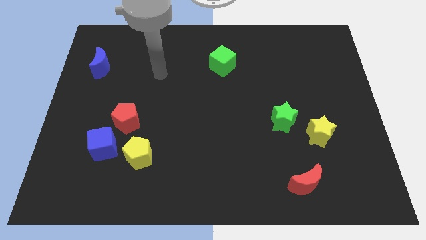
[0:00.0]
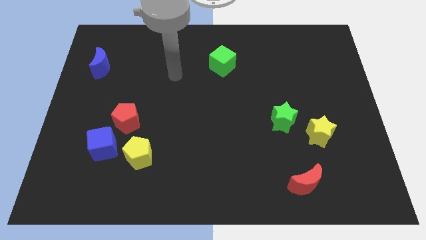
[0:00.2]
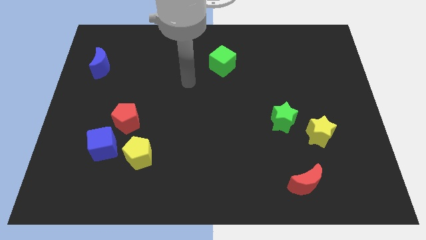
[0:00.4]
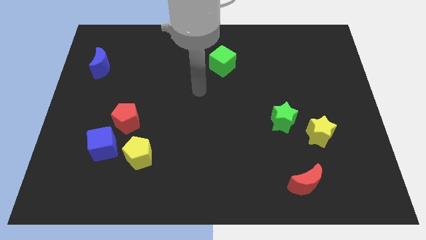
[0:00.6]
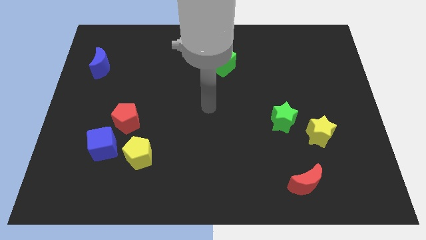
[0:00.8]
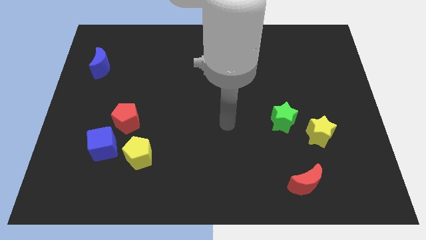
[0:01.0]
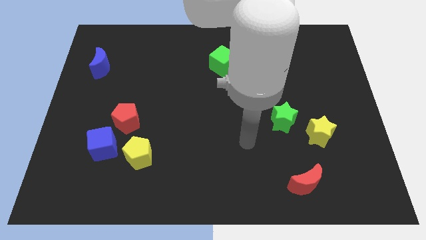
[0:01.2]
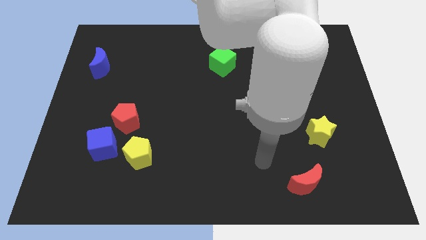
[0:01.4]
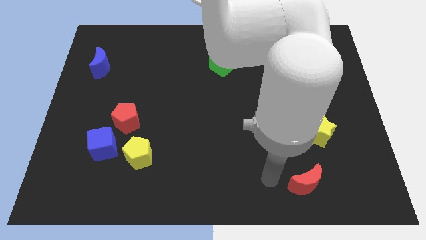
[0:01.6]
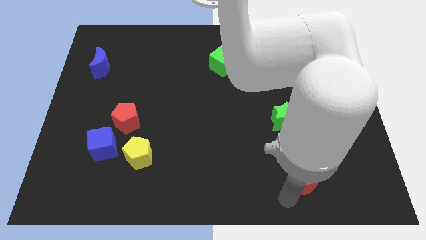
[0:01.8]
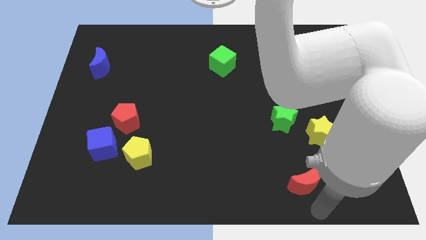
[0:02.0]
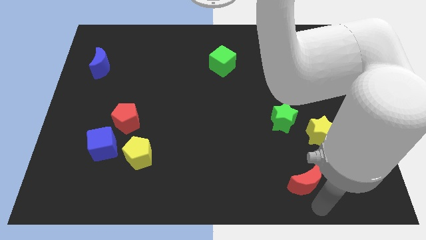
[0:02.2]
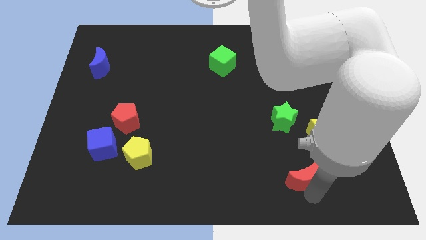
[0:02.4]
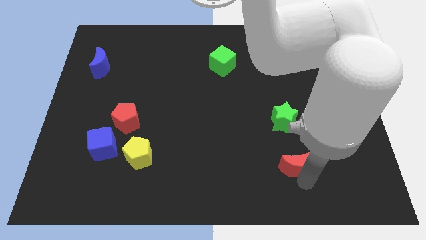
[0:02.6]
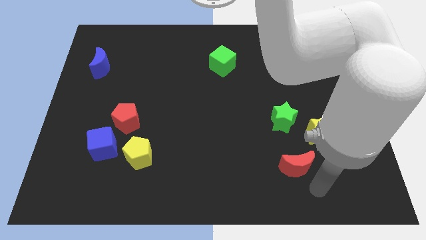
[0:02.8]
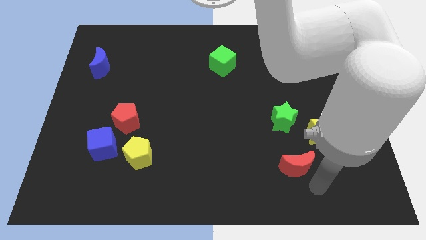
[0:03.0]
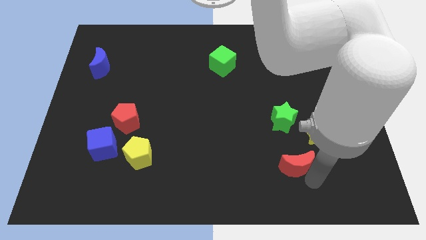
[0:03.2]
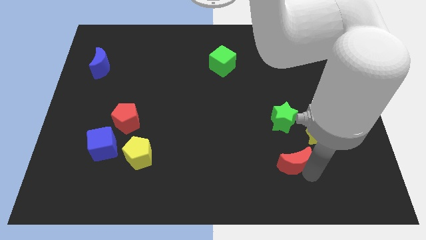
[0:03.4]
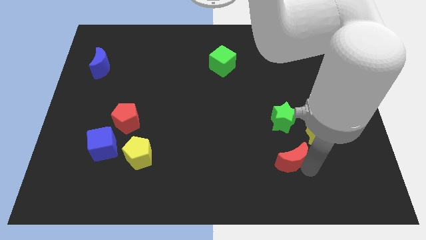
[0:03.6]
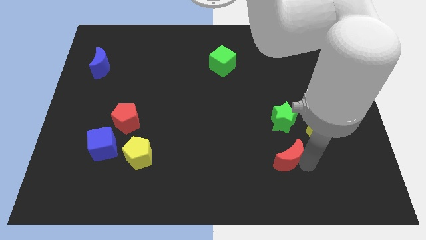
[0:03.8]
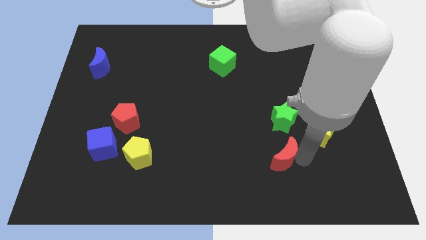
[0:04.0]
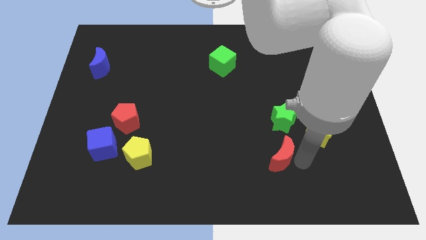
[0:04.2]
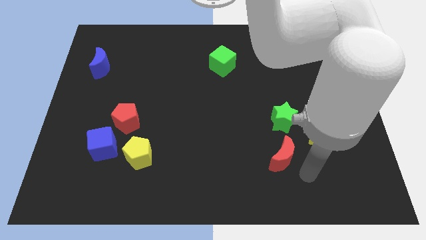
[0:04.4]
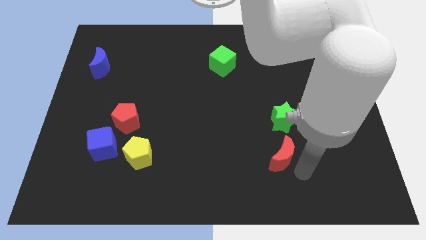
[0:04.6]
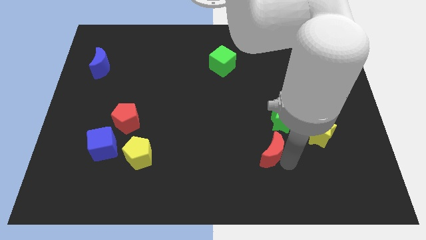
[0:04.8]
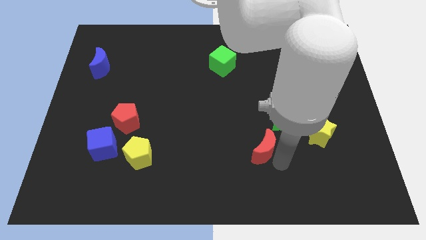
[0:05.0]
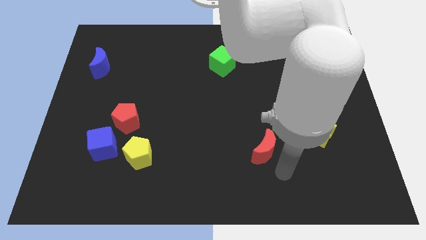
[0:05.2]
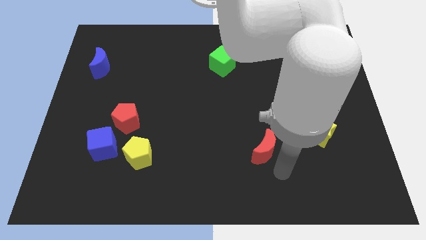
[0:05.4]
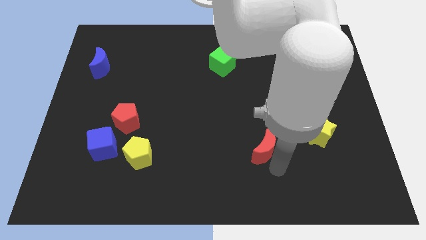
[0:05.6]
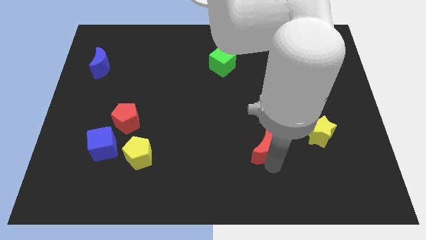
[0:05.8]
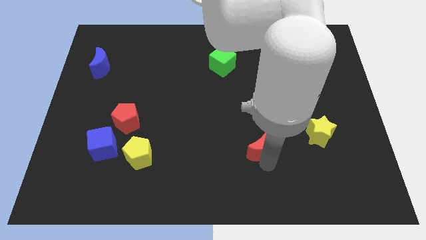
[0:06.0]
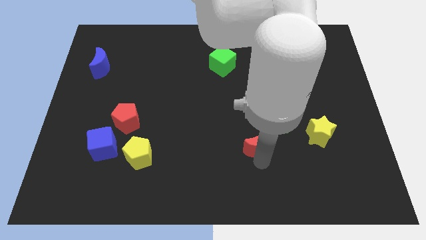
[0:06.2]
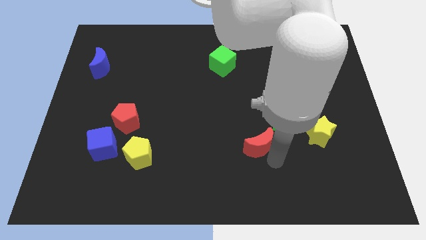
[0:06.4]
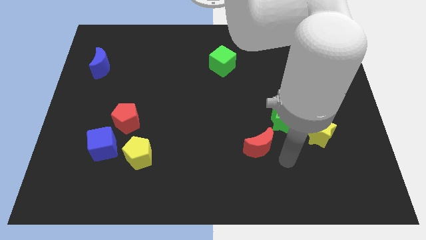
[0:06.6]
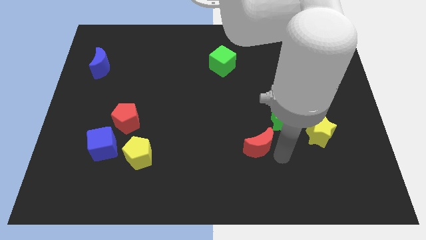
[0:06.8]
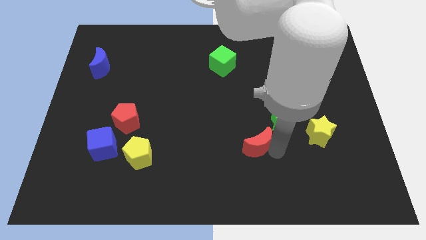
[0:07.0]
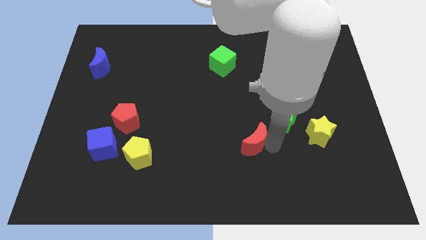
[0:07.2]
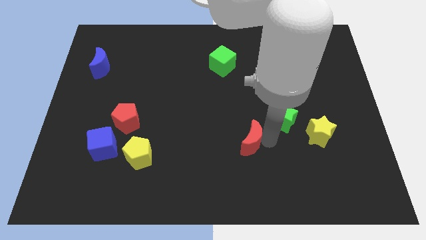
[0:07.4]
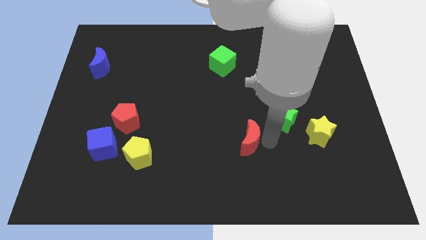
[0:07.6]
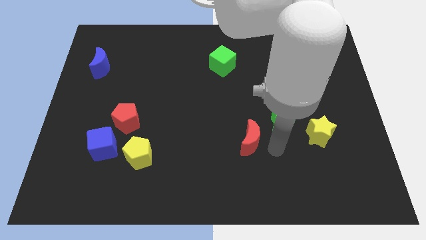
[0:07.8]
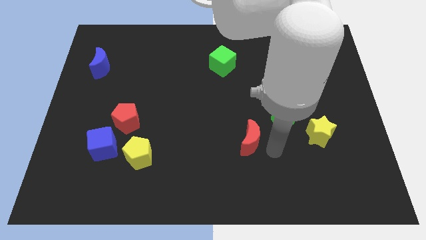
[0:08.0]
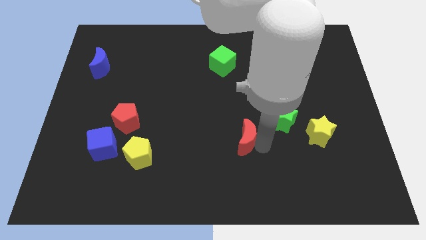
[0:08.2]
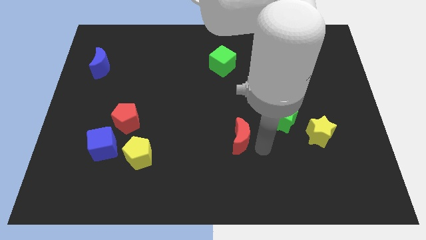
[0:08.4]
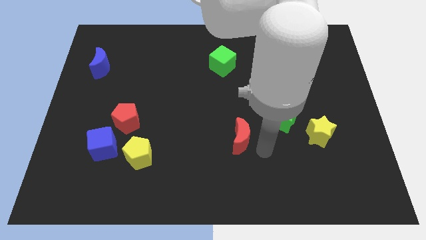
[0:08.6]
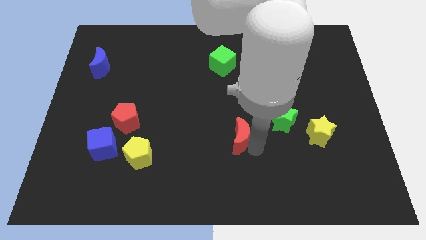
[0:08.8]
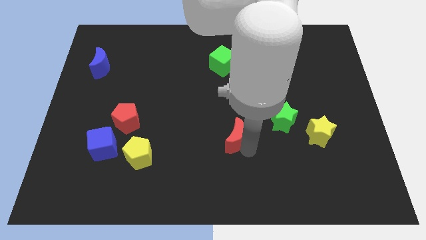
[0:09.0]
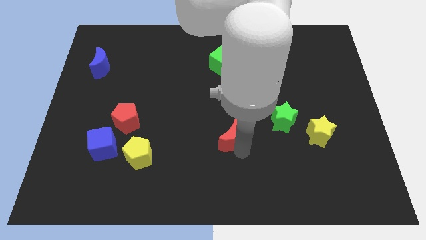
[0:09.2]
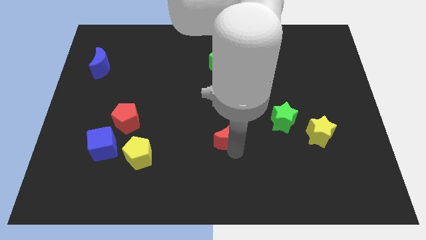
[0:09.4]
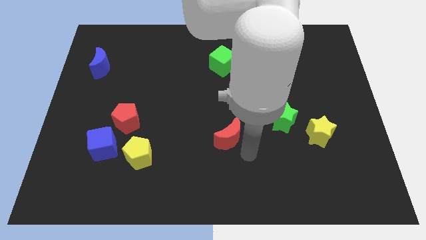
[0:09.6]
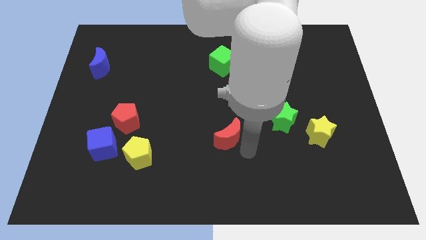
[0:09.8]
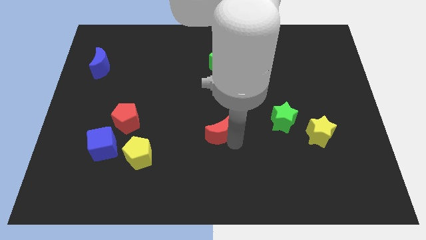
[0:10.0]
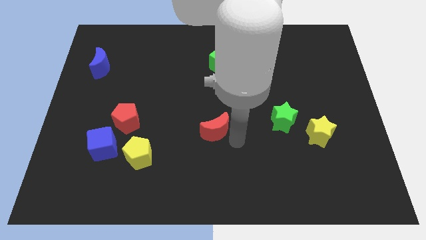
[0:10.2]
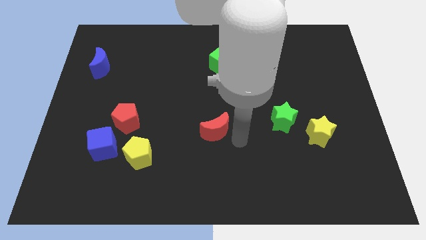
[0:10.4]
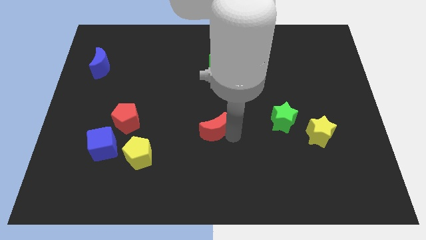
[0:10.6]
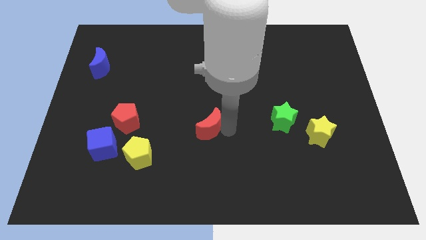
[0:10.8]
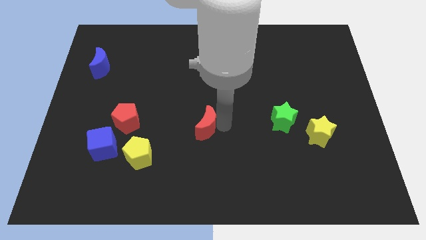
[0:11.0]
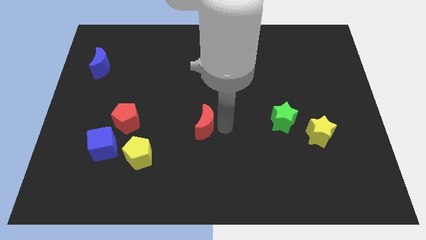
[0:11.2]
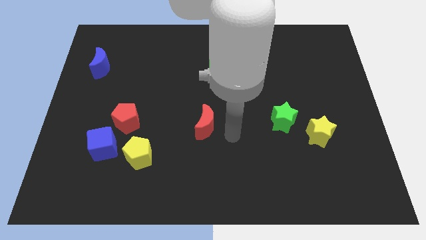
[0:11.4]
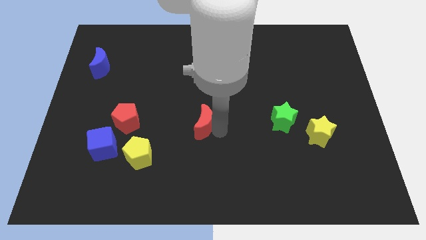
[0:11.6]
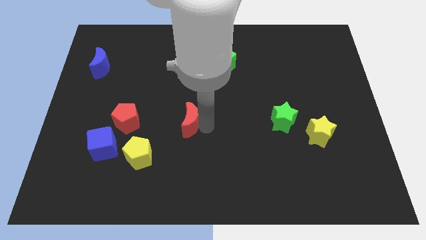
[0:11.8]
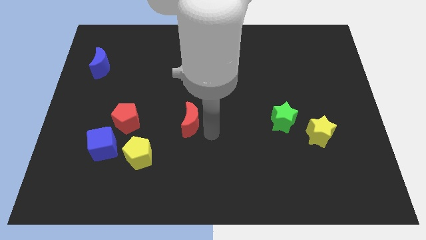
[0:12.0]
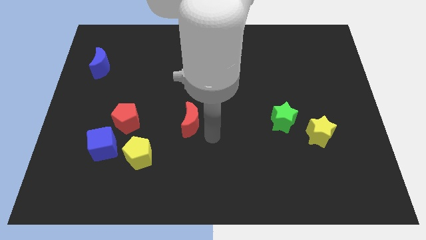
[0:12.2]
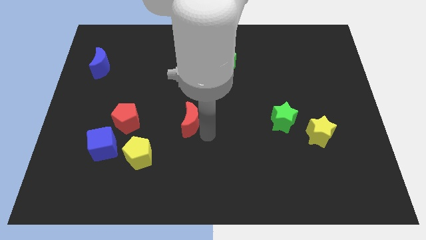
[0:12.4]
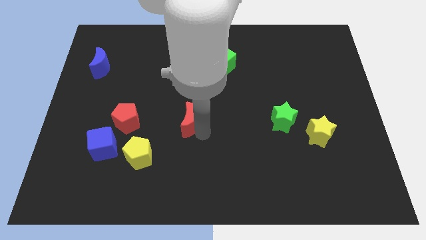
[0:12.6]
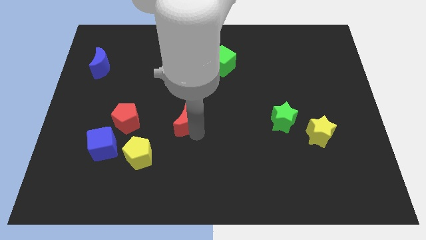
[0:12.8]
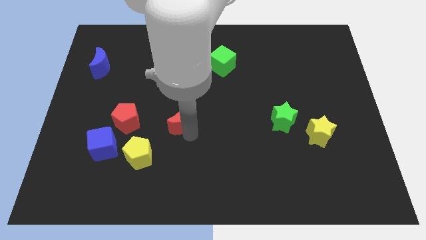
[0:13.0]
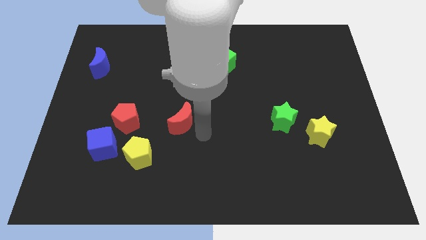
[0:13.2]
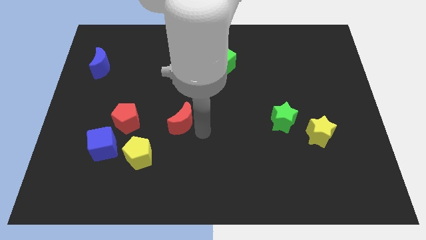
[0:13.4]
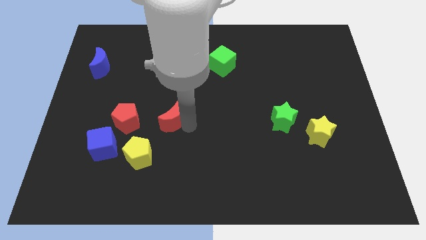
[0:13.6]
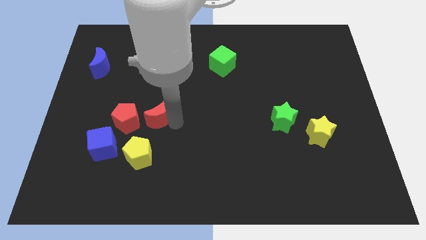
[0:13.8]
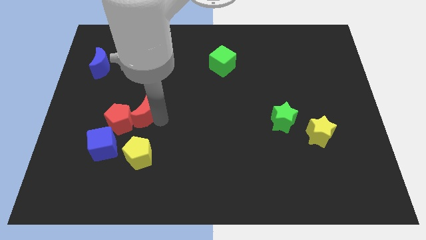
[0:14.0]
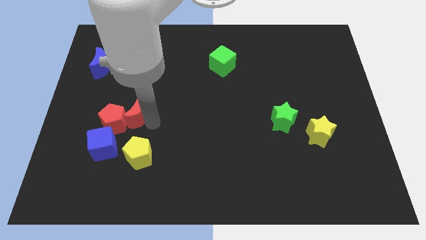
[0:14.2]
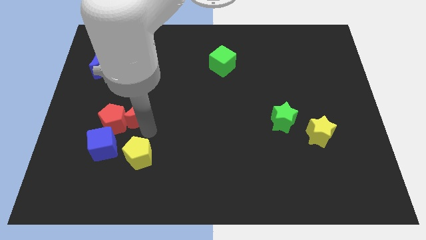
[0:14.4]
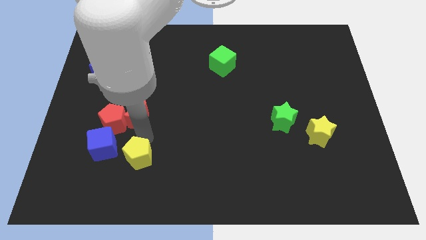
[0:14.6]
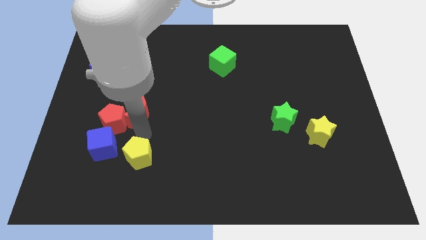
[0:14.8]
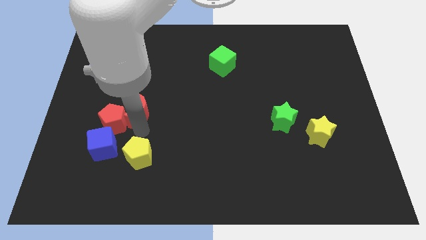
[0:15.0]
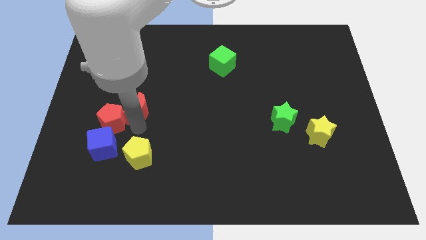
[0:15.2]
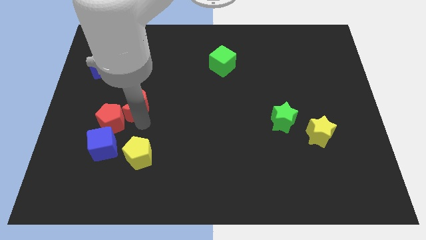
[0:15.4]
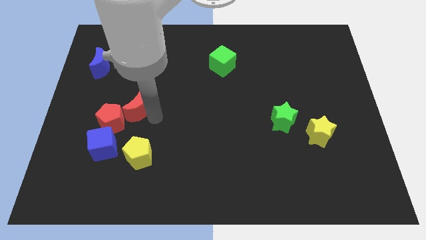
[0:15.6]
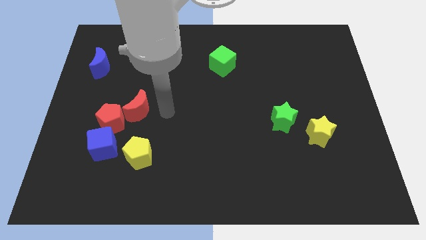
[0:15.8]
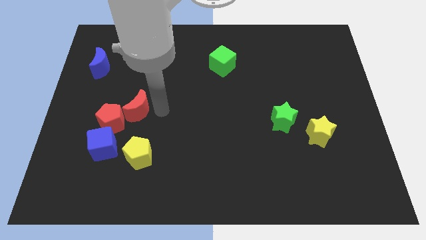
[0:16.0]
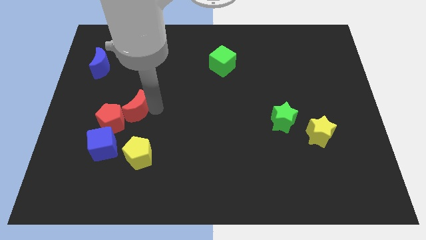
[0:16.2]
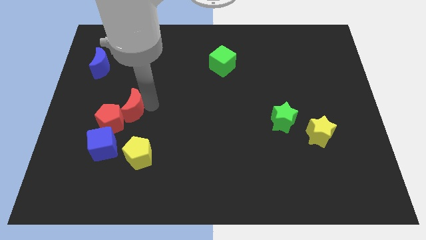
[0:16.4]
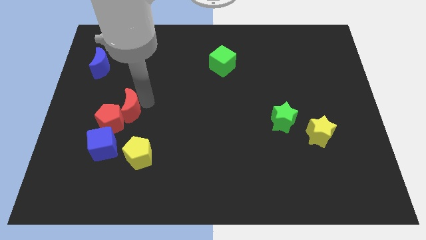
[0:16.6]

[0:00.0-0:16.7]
put the red moon above the blue cube

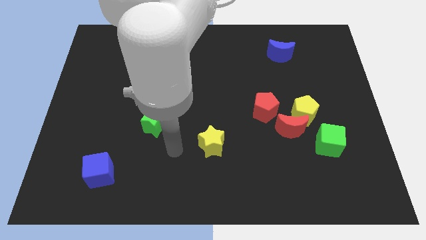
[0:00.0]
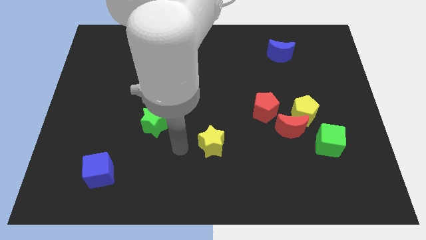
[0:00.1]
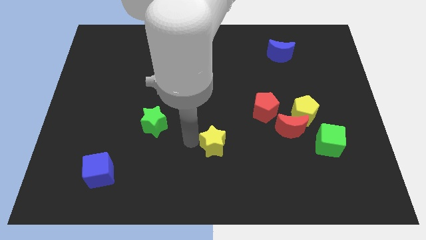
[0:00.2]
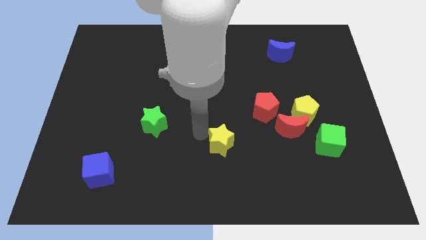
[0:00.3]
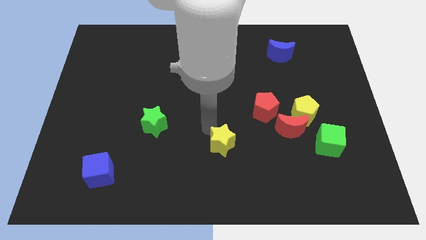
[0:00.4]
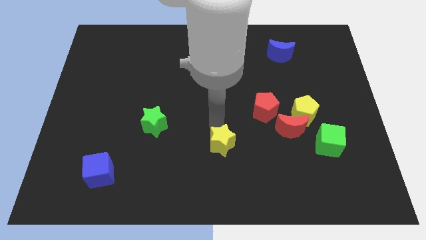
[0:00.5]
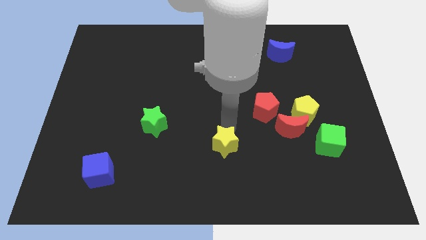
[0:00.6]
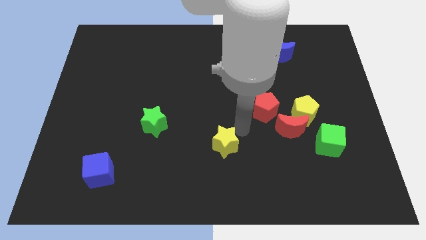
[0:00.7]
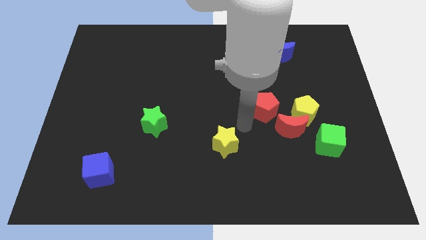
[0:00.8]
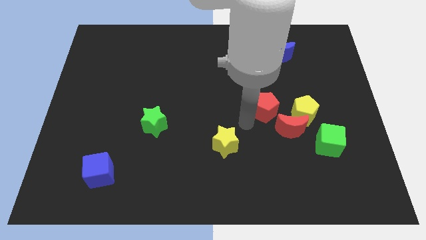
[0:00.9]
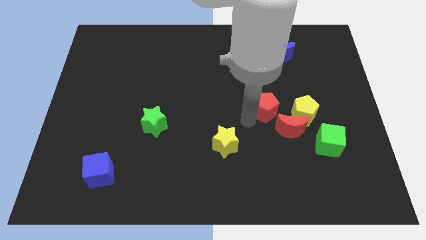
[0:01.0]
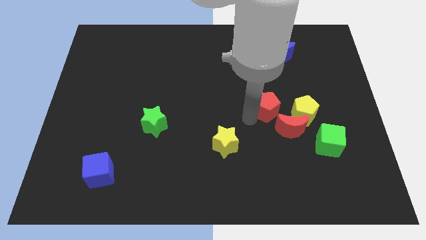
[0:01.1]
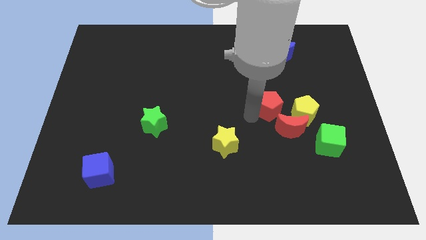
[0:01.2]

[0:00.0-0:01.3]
slide the red pentagon above the red moon
